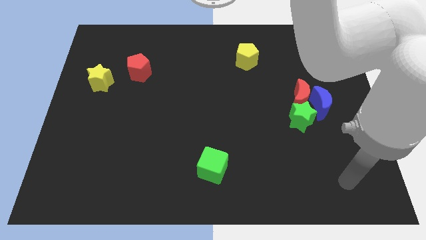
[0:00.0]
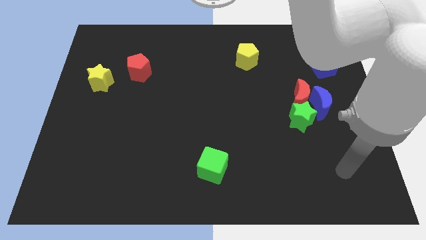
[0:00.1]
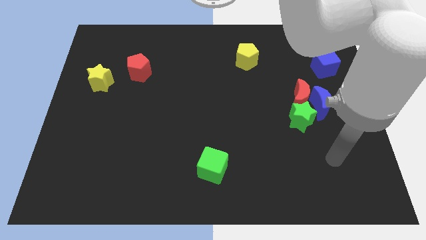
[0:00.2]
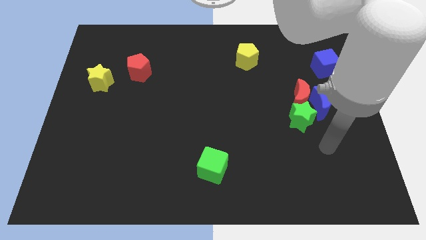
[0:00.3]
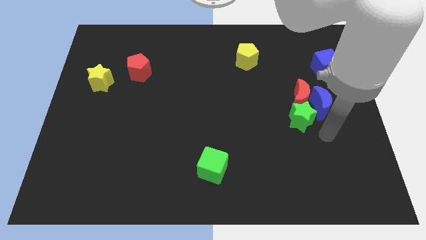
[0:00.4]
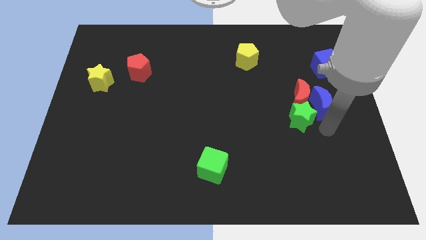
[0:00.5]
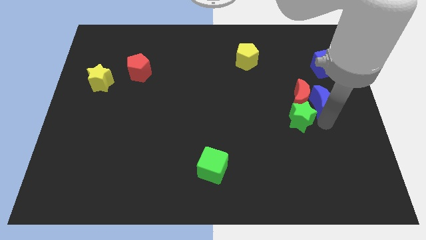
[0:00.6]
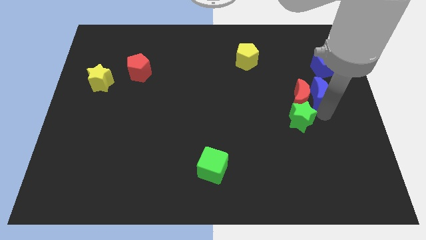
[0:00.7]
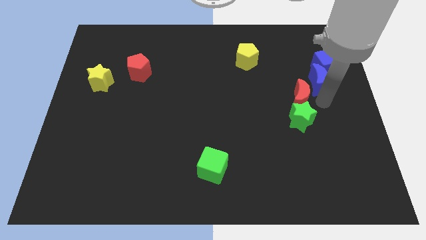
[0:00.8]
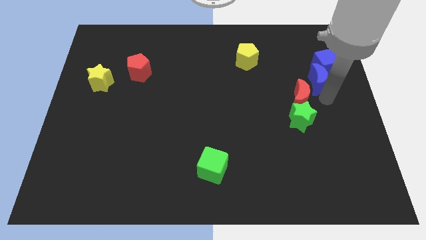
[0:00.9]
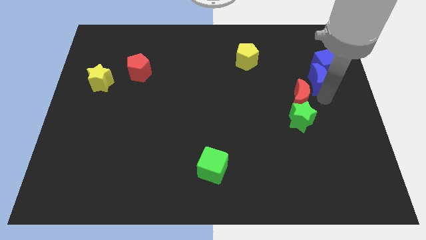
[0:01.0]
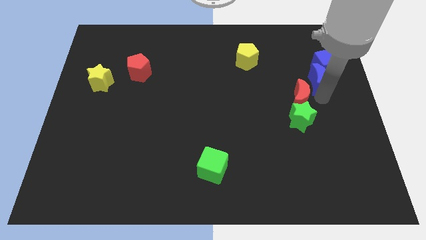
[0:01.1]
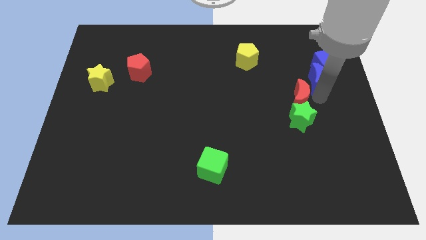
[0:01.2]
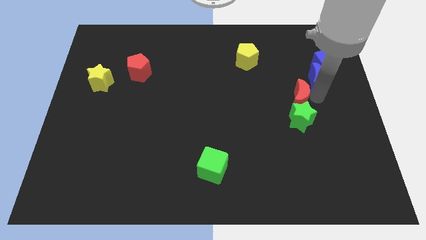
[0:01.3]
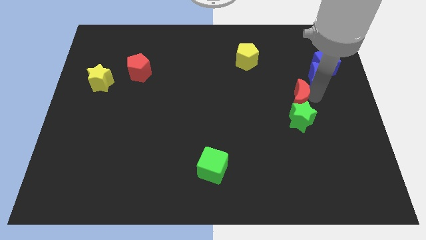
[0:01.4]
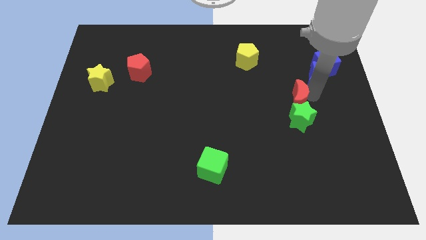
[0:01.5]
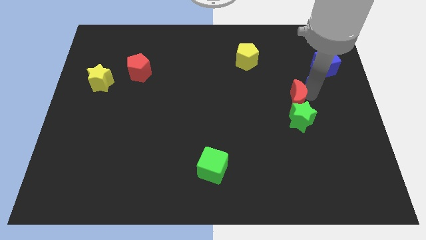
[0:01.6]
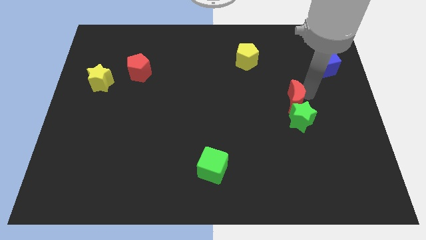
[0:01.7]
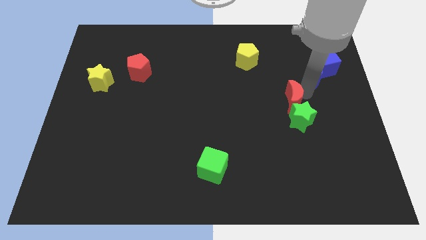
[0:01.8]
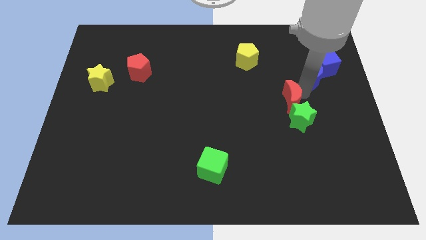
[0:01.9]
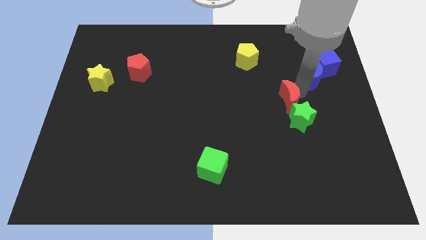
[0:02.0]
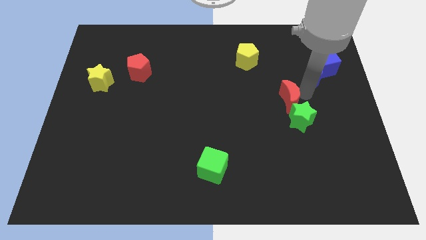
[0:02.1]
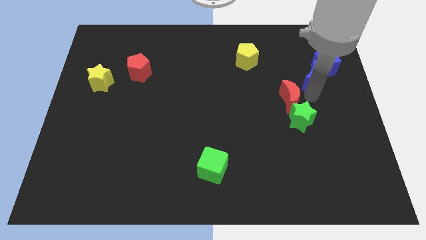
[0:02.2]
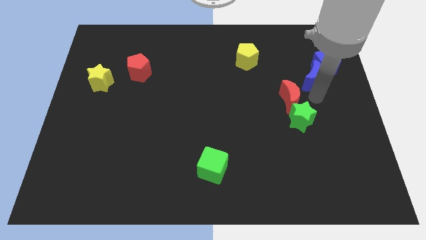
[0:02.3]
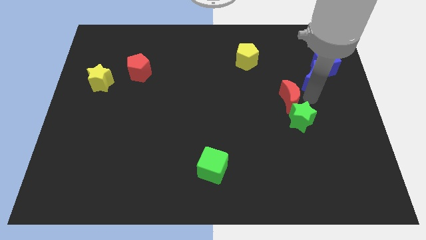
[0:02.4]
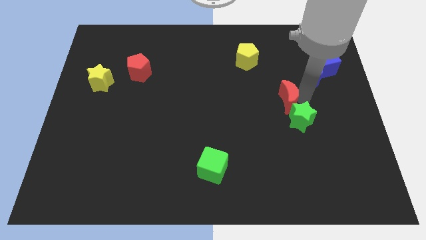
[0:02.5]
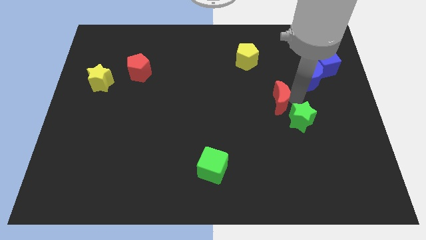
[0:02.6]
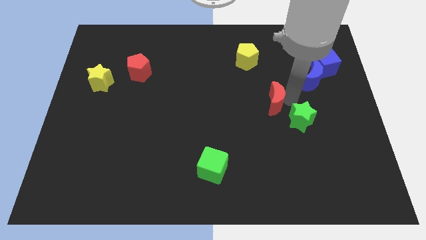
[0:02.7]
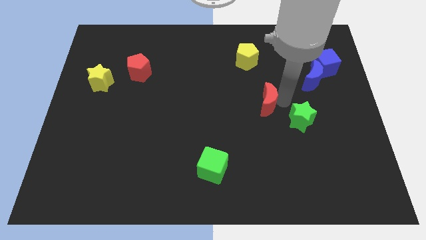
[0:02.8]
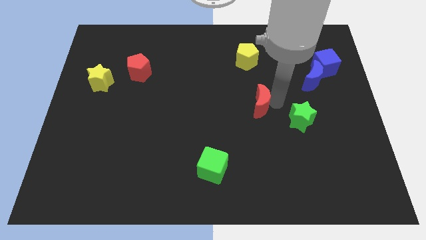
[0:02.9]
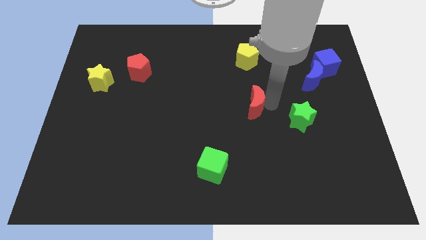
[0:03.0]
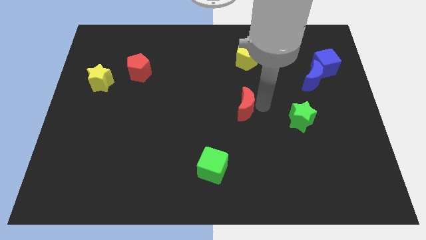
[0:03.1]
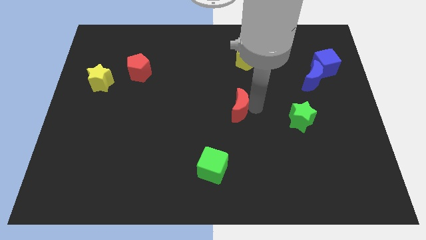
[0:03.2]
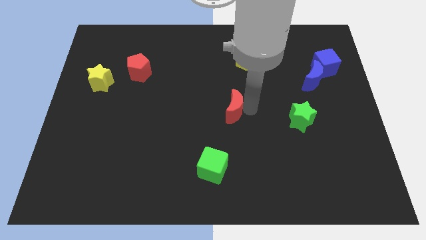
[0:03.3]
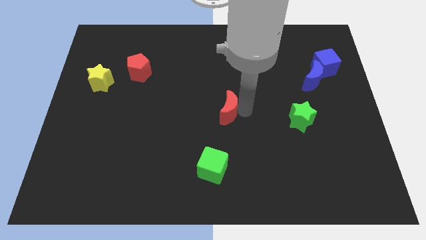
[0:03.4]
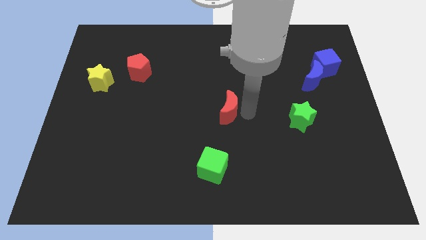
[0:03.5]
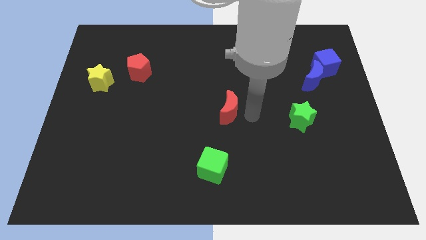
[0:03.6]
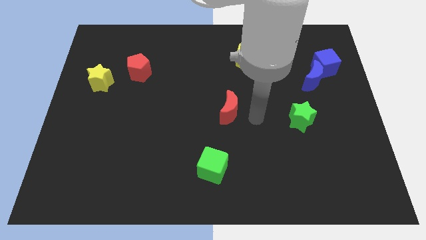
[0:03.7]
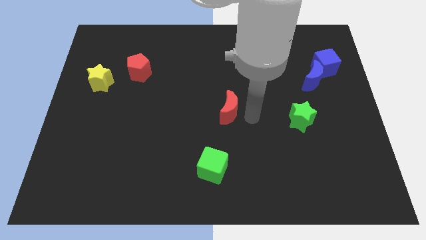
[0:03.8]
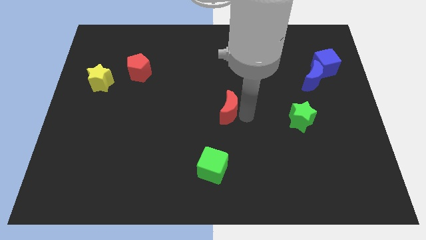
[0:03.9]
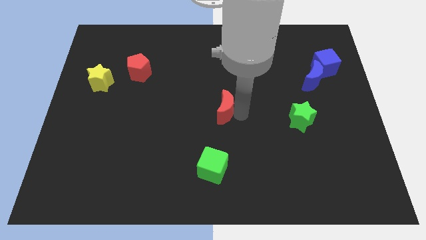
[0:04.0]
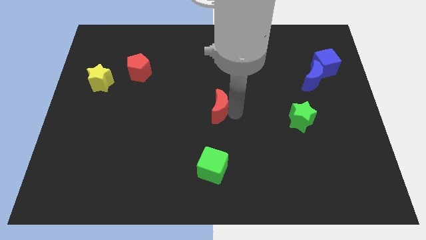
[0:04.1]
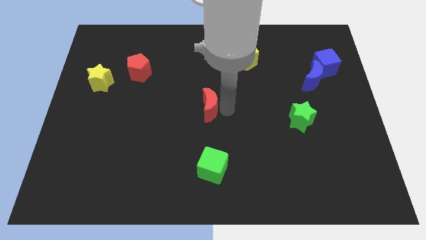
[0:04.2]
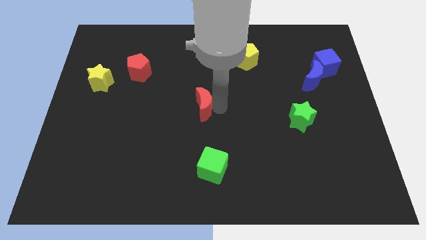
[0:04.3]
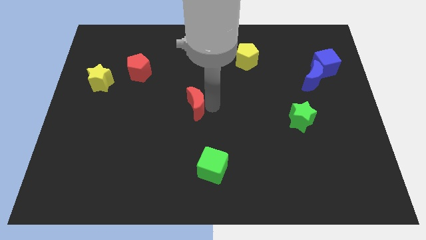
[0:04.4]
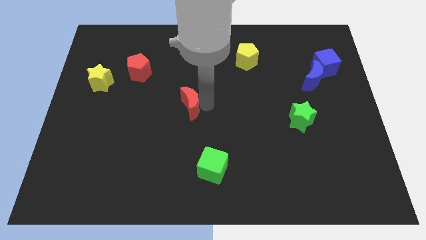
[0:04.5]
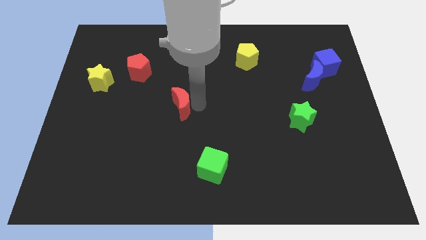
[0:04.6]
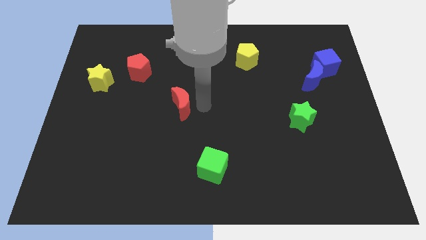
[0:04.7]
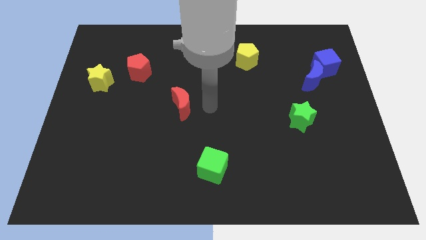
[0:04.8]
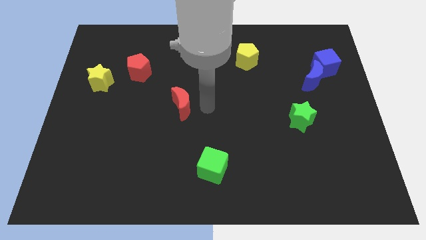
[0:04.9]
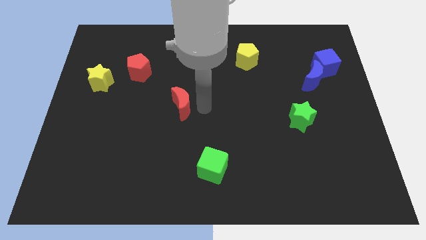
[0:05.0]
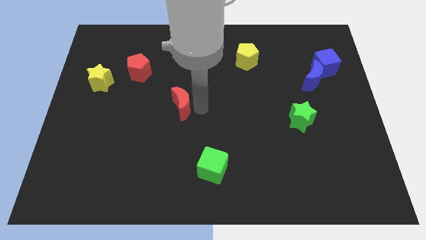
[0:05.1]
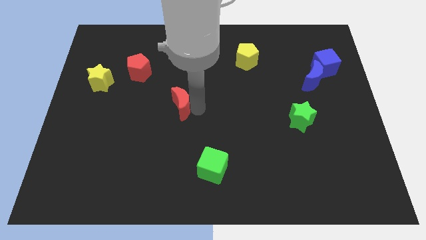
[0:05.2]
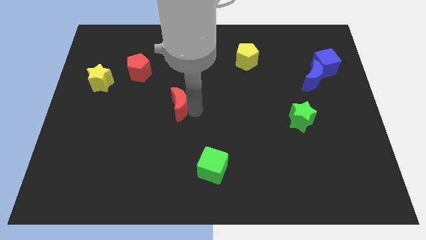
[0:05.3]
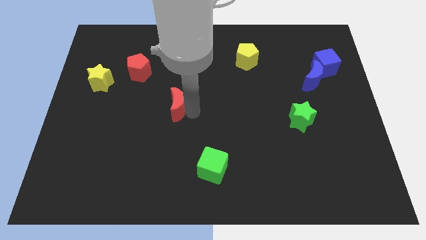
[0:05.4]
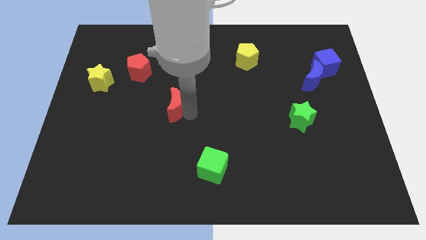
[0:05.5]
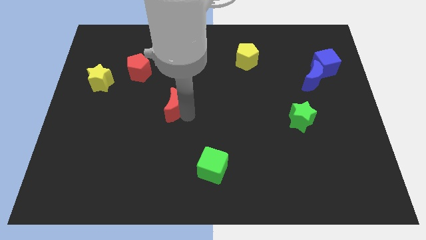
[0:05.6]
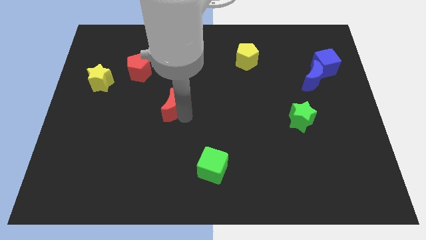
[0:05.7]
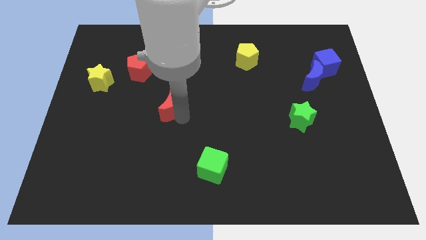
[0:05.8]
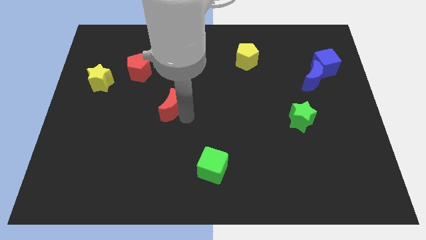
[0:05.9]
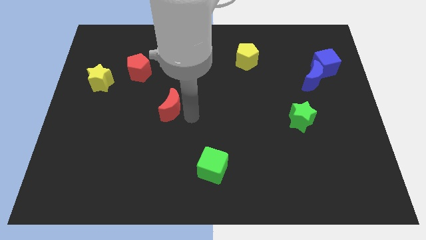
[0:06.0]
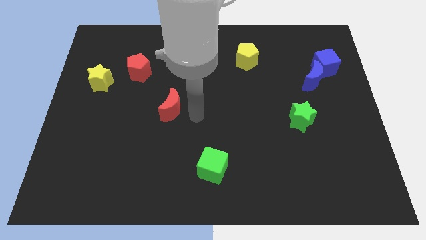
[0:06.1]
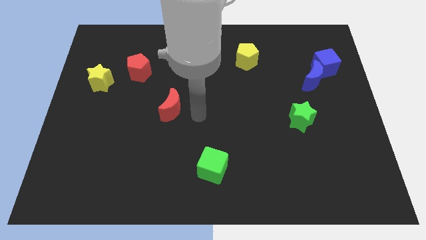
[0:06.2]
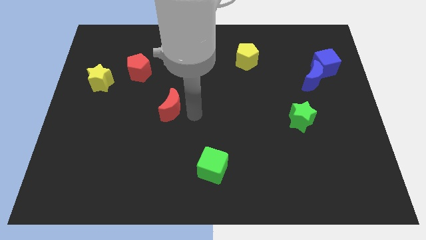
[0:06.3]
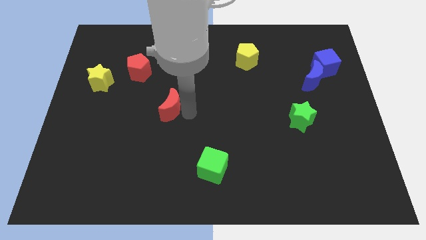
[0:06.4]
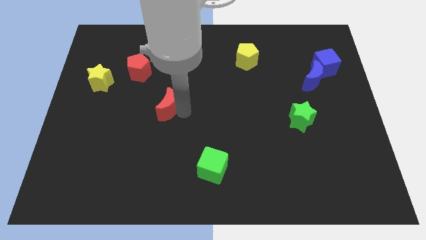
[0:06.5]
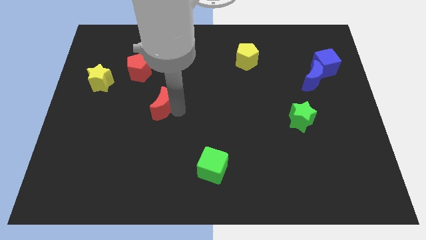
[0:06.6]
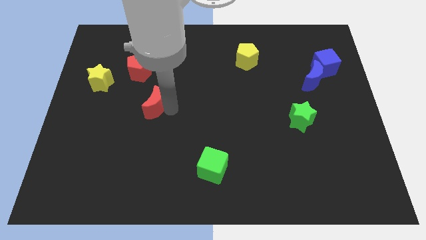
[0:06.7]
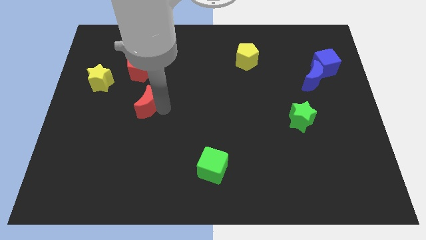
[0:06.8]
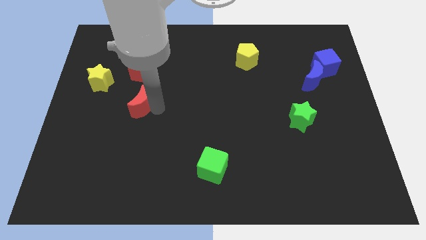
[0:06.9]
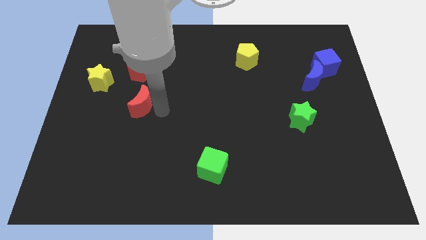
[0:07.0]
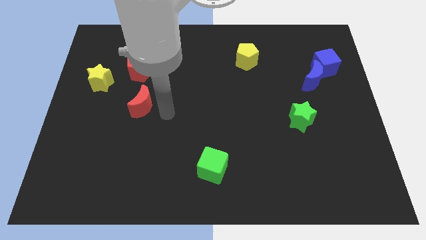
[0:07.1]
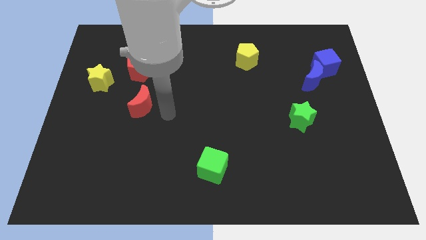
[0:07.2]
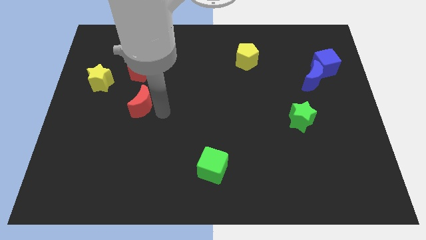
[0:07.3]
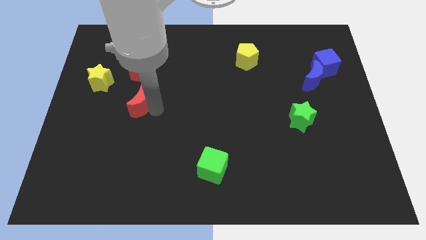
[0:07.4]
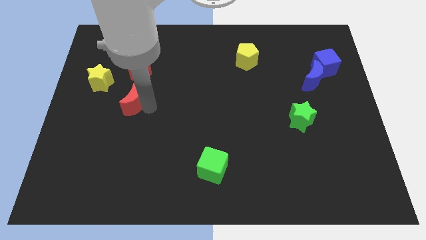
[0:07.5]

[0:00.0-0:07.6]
put the red moon to the bottom right side of the yellow star
